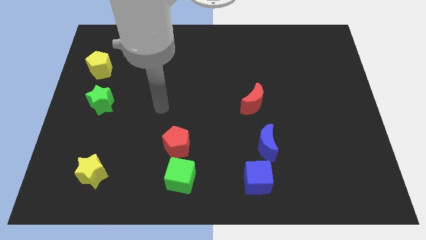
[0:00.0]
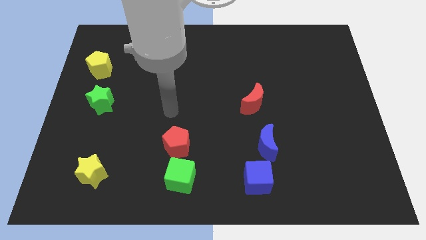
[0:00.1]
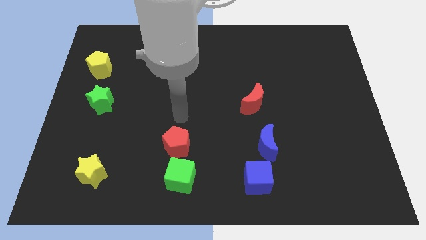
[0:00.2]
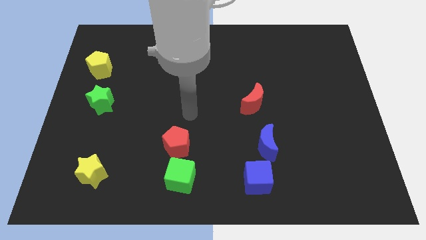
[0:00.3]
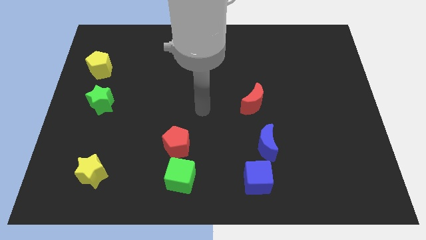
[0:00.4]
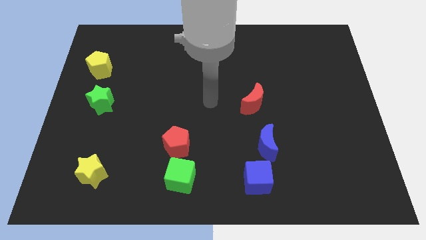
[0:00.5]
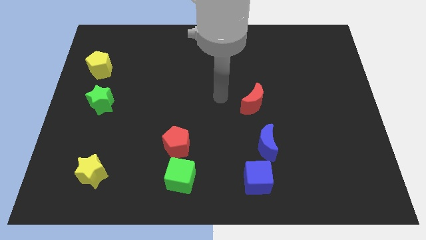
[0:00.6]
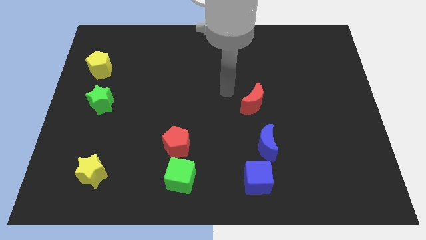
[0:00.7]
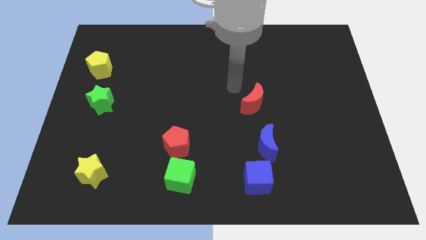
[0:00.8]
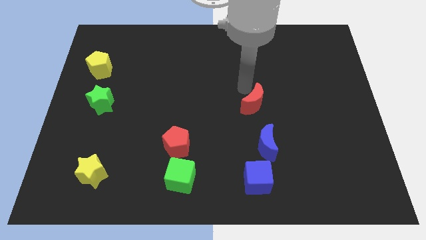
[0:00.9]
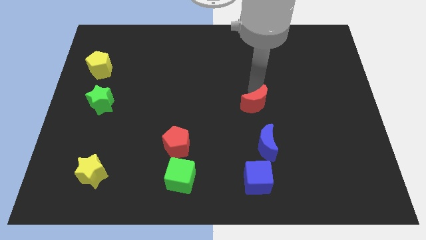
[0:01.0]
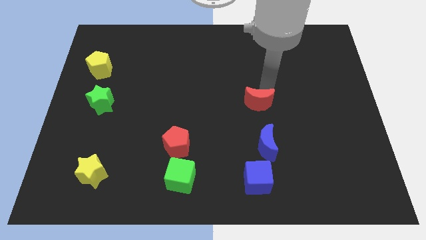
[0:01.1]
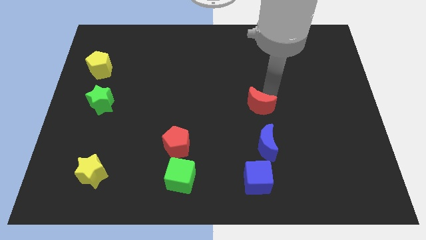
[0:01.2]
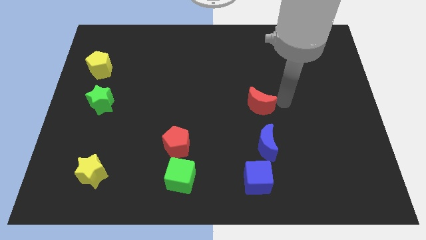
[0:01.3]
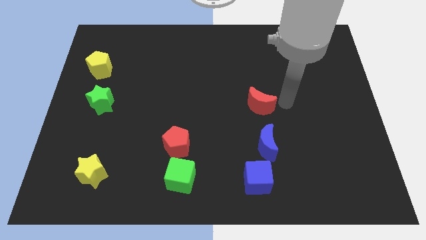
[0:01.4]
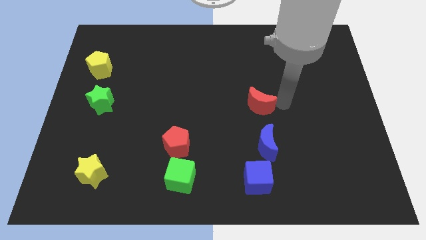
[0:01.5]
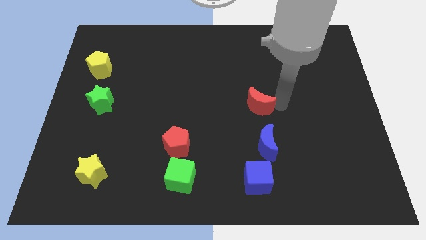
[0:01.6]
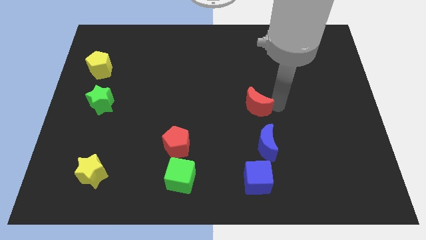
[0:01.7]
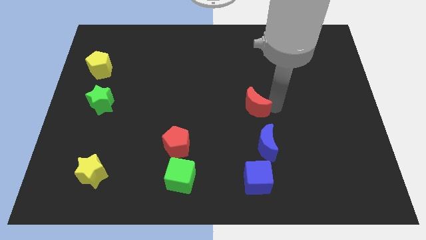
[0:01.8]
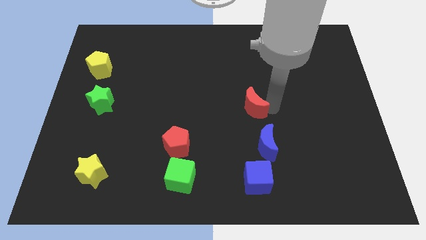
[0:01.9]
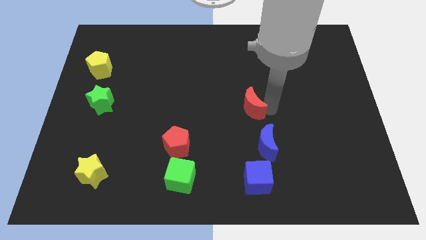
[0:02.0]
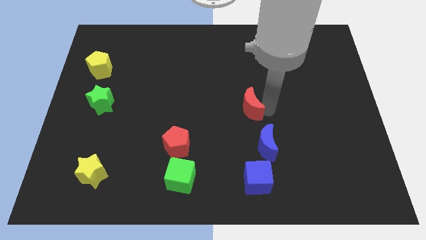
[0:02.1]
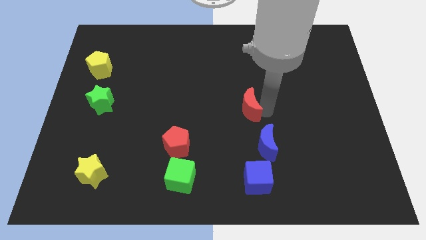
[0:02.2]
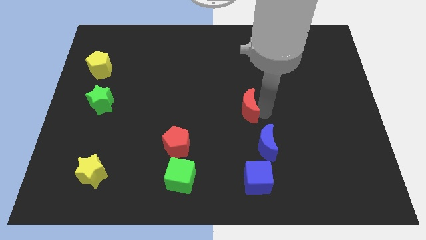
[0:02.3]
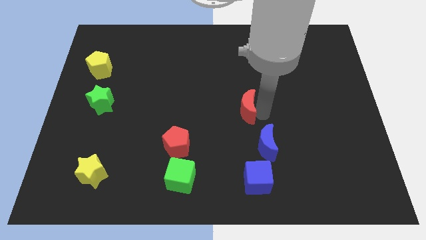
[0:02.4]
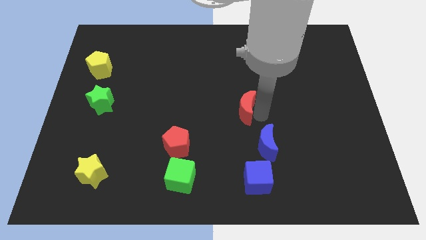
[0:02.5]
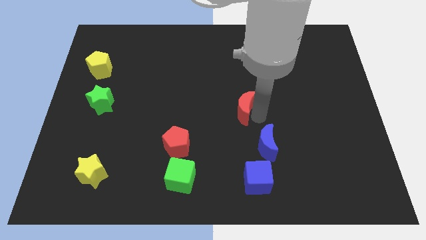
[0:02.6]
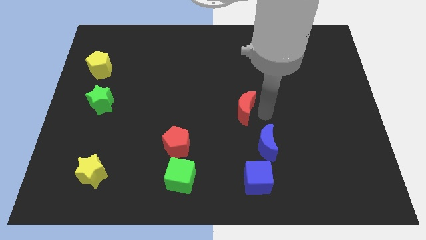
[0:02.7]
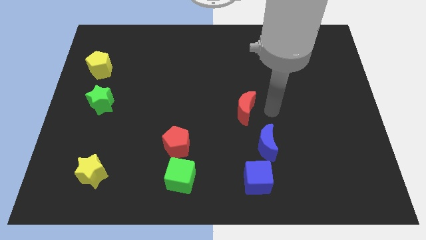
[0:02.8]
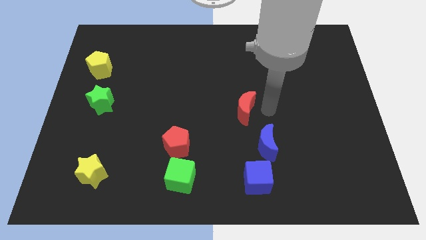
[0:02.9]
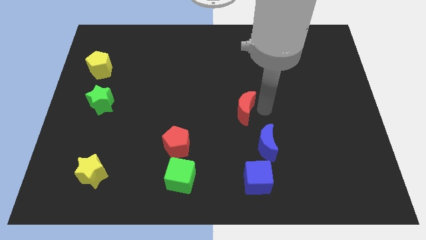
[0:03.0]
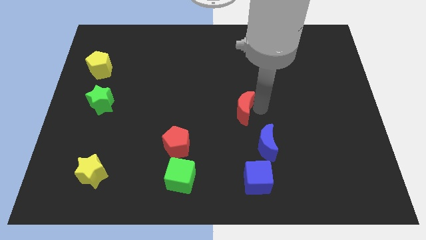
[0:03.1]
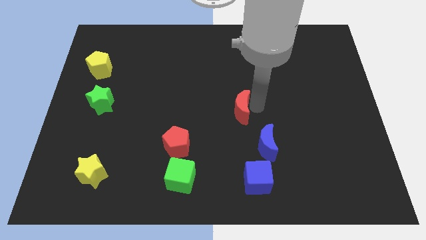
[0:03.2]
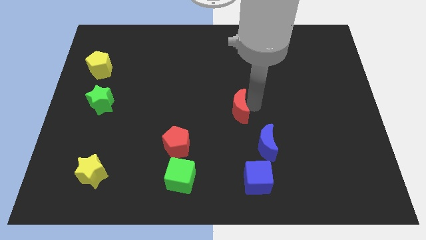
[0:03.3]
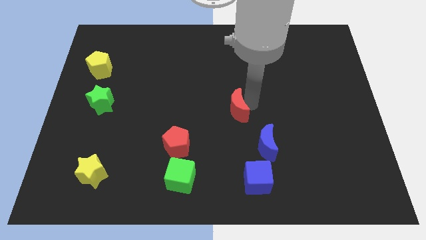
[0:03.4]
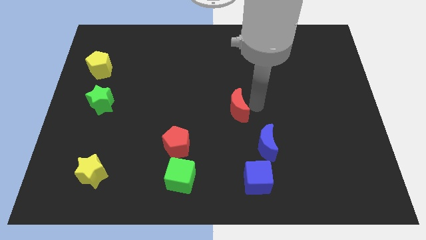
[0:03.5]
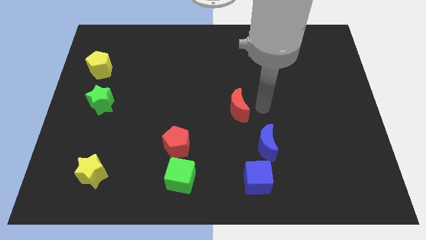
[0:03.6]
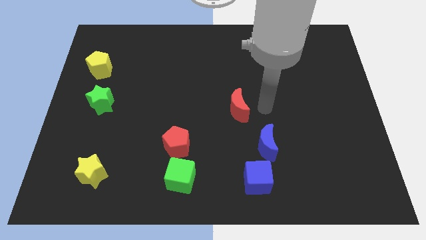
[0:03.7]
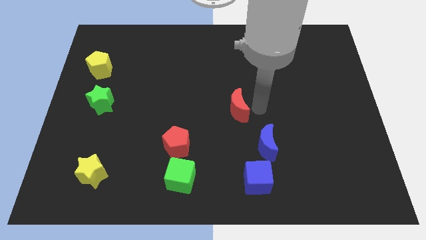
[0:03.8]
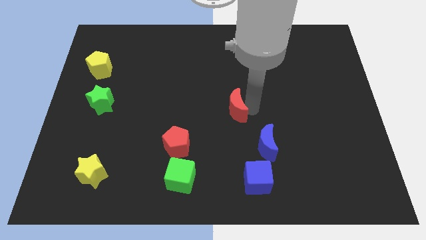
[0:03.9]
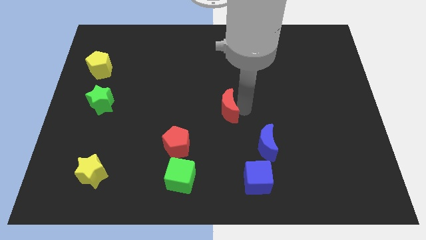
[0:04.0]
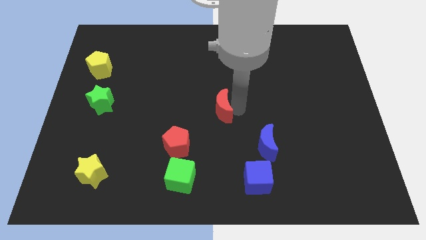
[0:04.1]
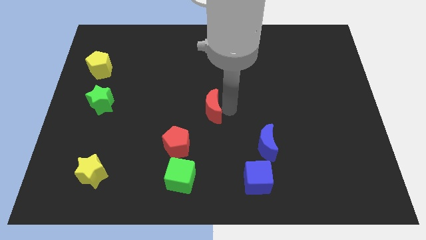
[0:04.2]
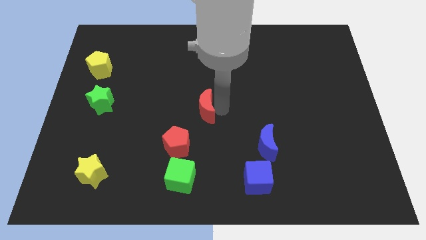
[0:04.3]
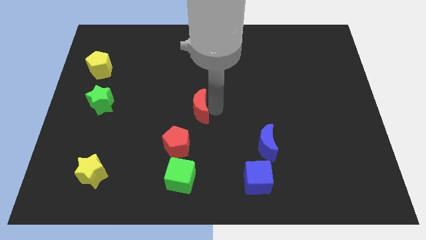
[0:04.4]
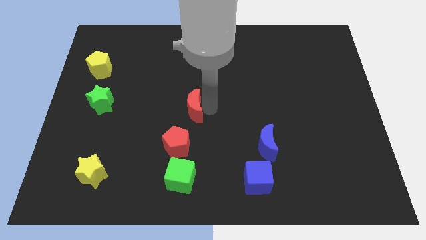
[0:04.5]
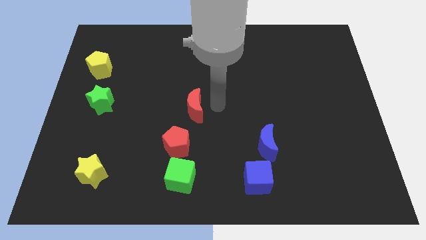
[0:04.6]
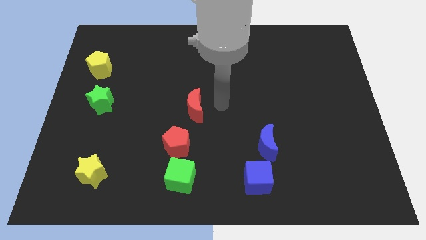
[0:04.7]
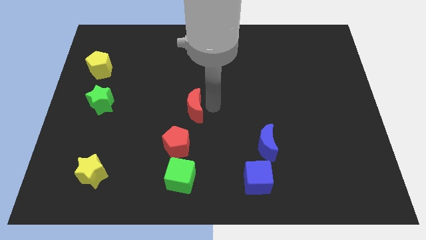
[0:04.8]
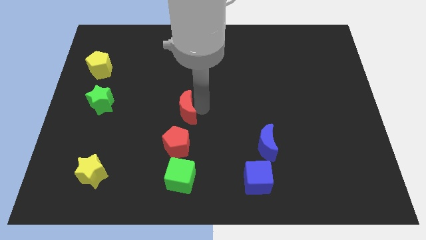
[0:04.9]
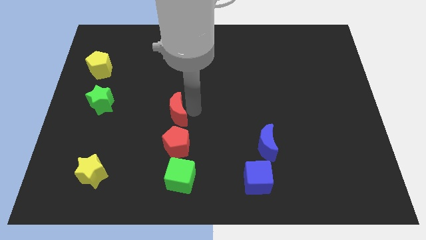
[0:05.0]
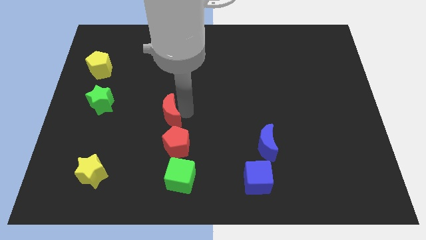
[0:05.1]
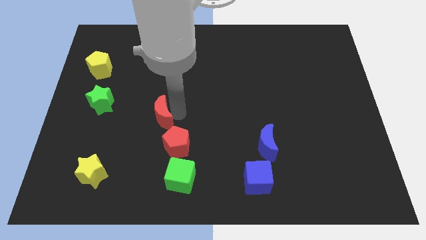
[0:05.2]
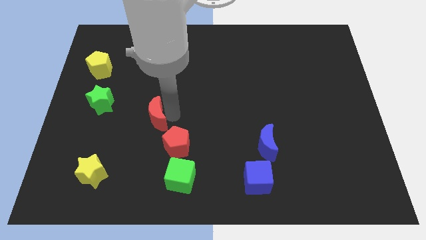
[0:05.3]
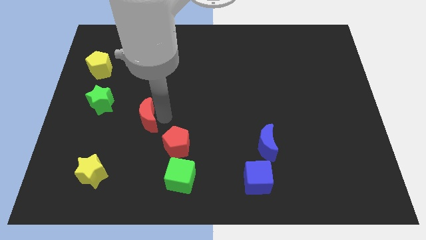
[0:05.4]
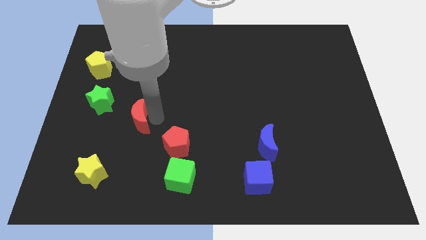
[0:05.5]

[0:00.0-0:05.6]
slide the red moon to the bottom right side of the green star

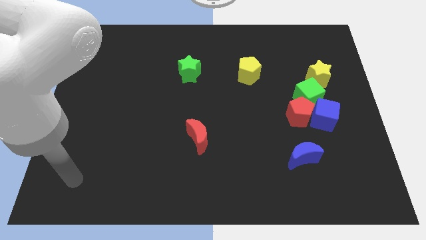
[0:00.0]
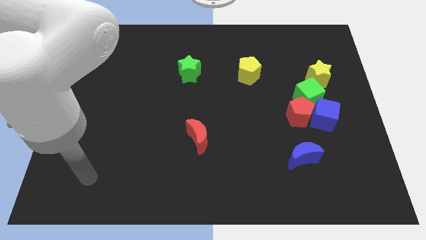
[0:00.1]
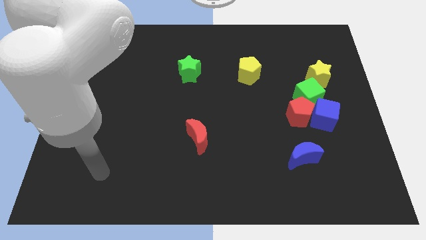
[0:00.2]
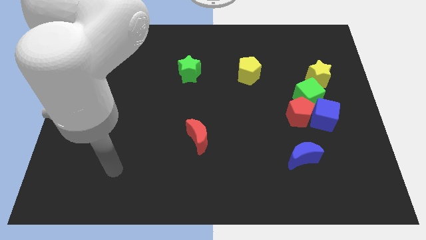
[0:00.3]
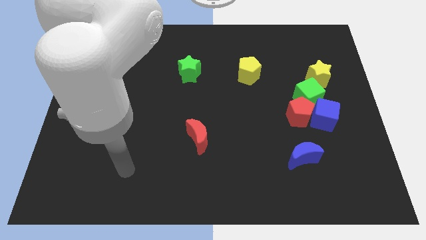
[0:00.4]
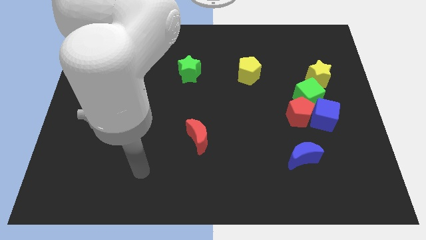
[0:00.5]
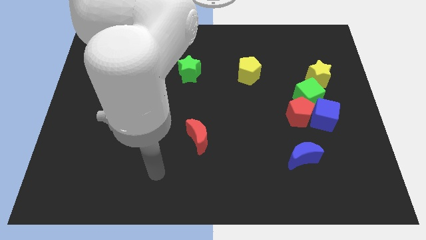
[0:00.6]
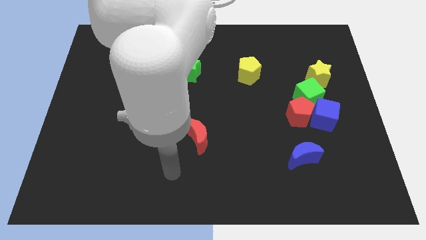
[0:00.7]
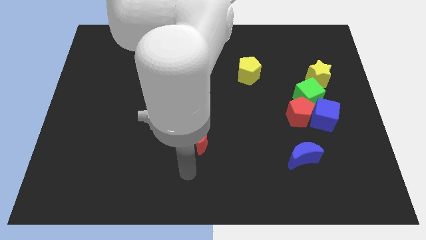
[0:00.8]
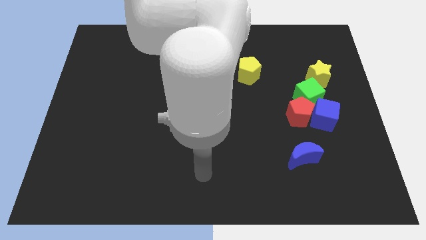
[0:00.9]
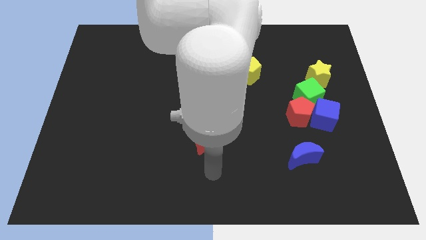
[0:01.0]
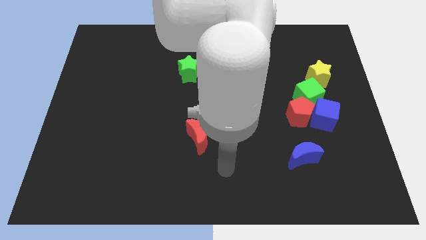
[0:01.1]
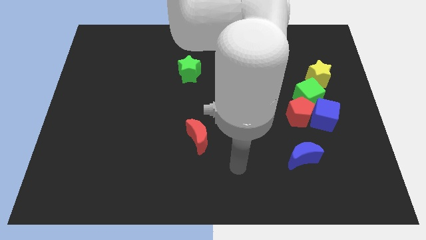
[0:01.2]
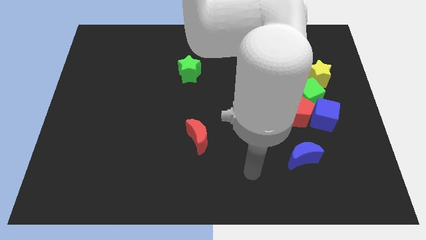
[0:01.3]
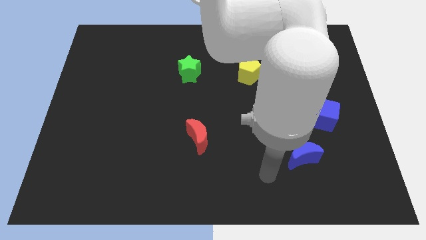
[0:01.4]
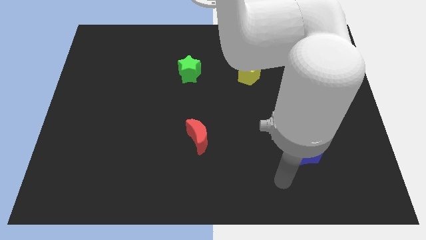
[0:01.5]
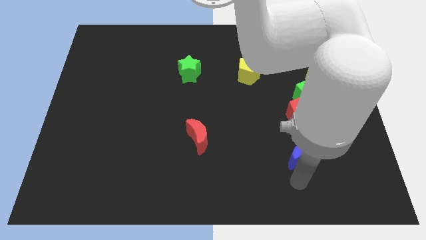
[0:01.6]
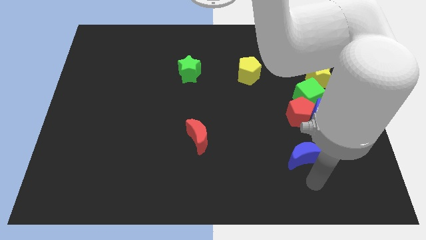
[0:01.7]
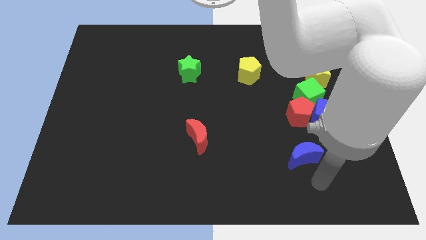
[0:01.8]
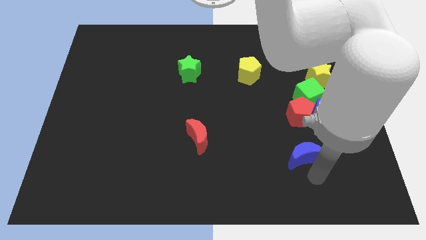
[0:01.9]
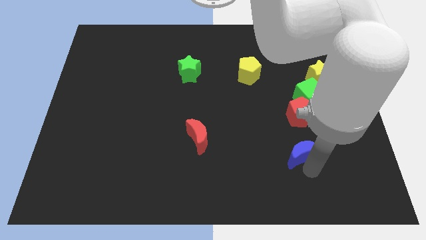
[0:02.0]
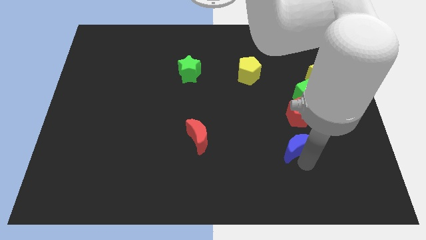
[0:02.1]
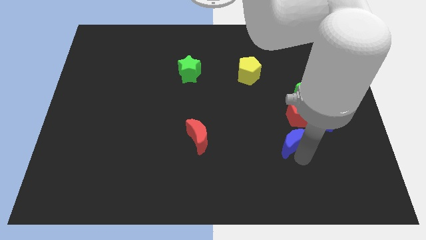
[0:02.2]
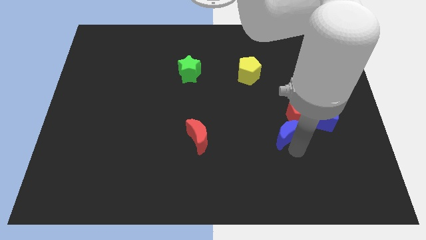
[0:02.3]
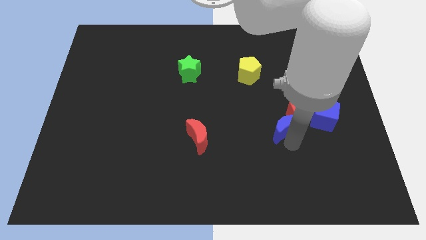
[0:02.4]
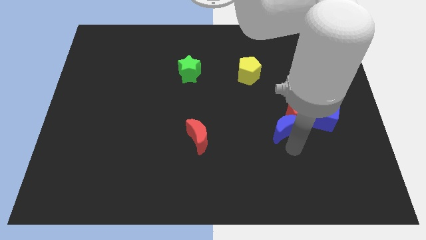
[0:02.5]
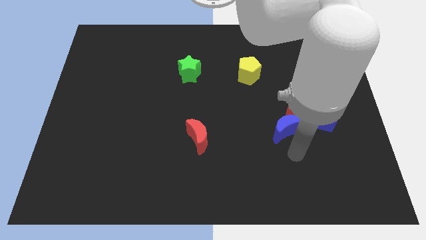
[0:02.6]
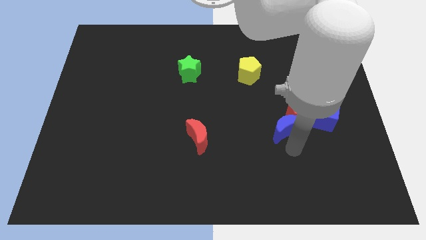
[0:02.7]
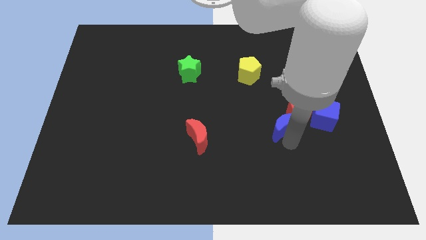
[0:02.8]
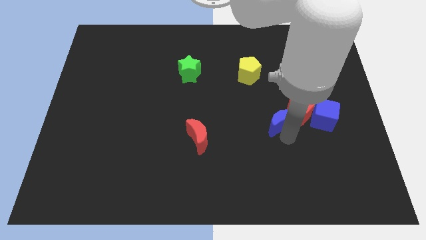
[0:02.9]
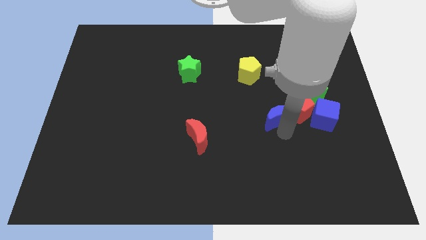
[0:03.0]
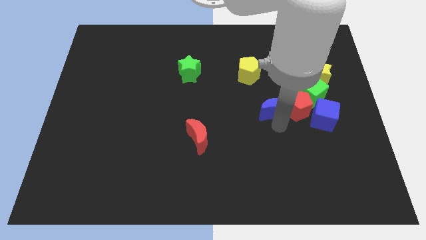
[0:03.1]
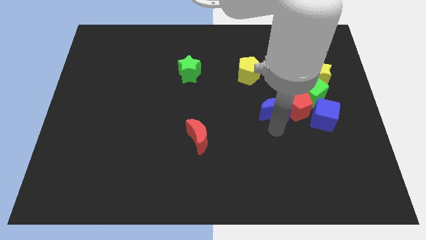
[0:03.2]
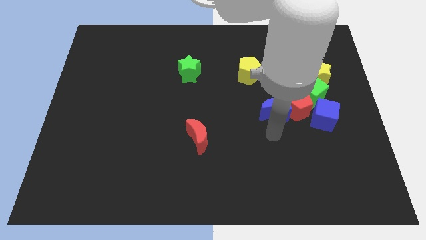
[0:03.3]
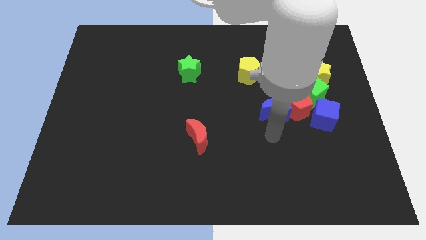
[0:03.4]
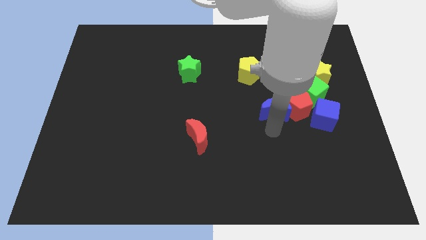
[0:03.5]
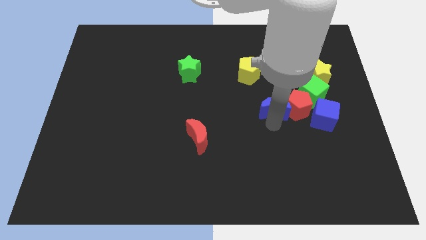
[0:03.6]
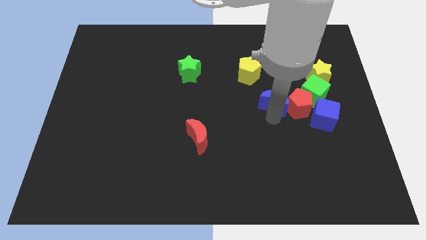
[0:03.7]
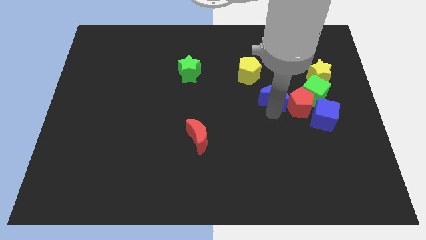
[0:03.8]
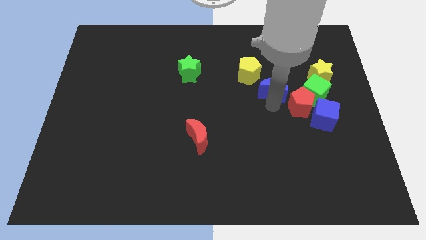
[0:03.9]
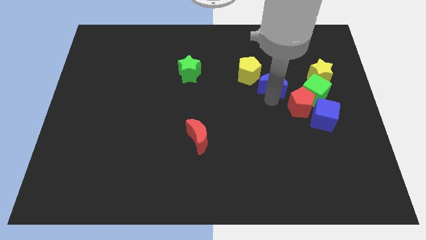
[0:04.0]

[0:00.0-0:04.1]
move the blue moon to the left side of the yellow star
